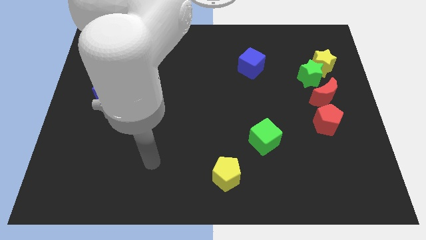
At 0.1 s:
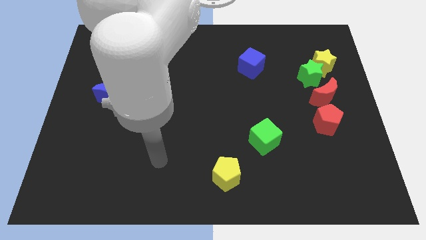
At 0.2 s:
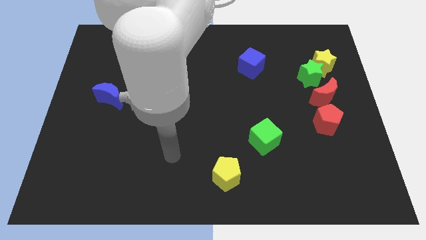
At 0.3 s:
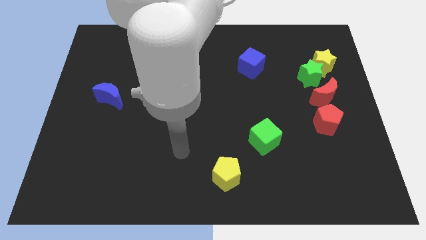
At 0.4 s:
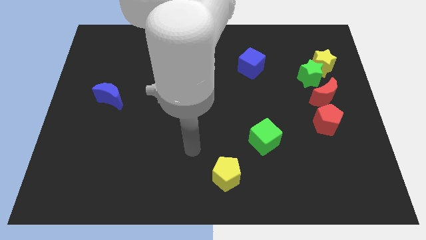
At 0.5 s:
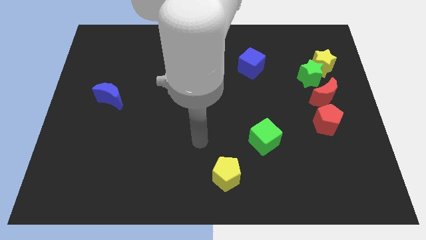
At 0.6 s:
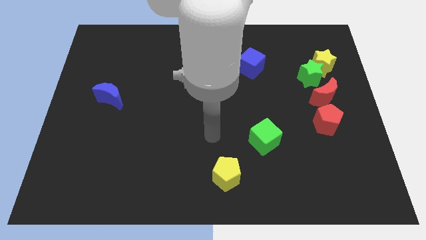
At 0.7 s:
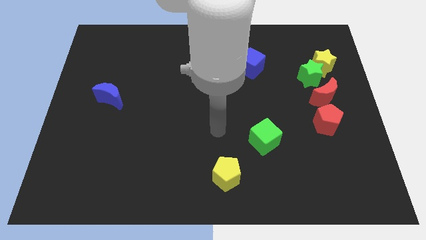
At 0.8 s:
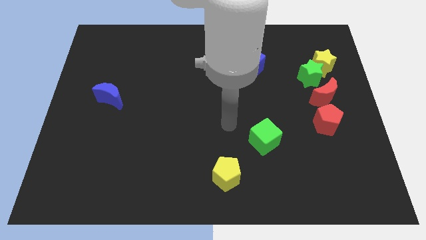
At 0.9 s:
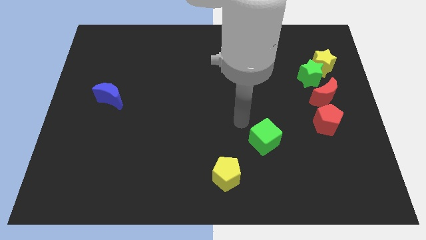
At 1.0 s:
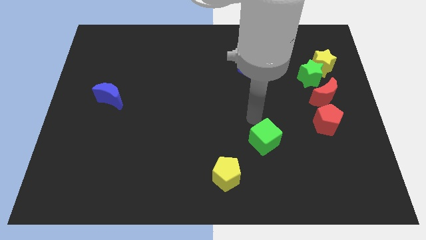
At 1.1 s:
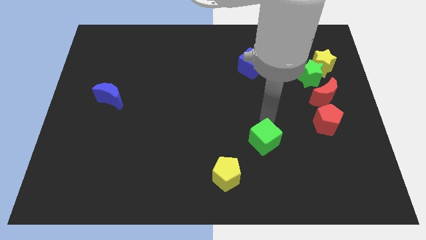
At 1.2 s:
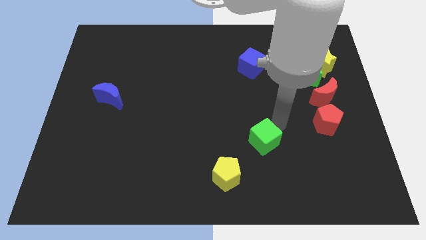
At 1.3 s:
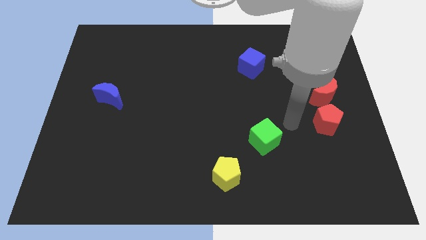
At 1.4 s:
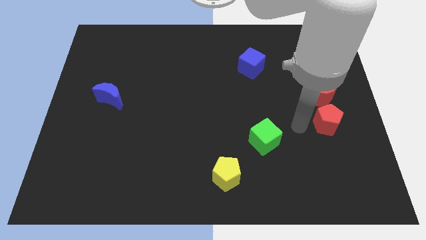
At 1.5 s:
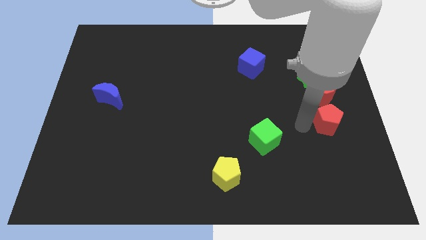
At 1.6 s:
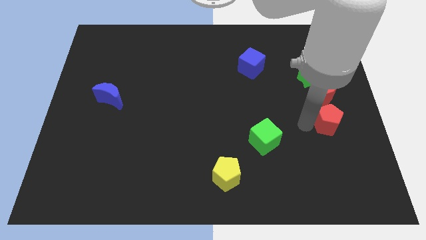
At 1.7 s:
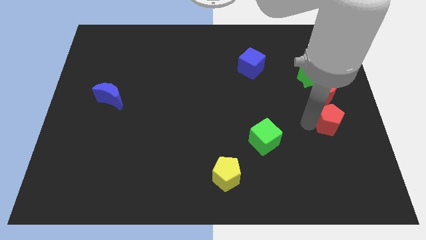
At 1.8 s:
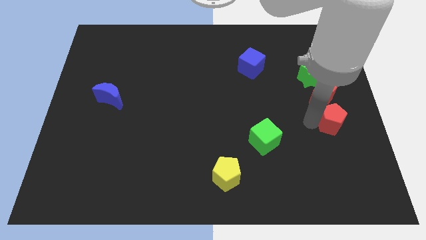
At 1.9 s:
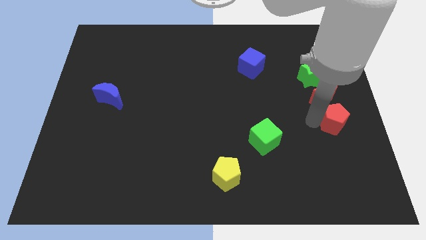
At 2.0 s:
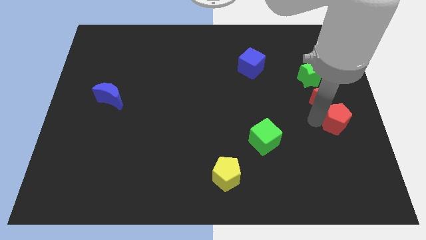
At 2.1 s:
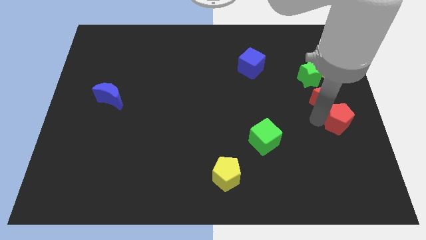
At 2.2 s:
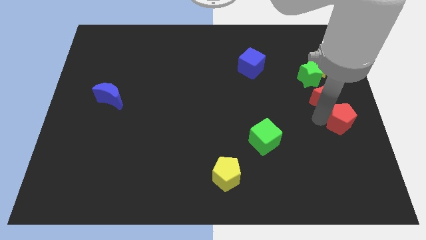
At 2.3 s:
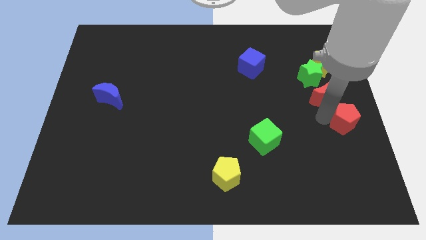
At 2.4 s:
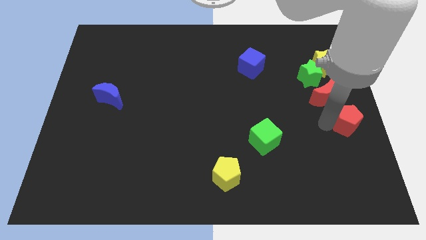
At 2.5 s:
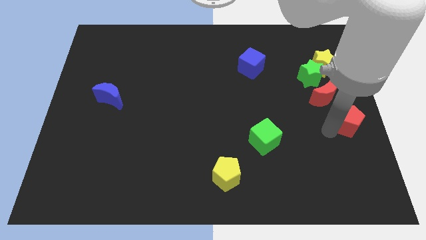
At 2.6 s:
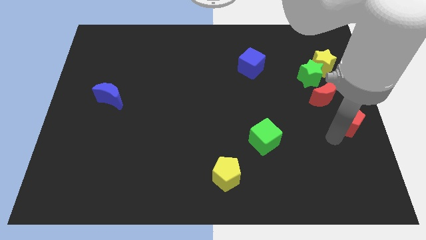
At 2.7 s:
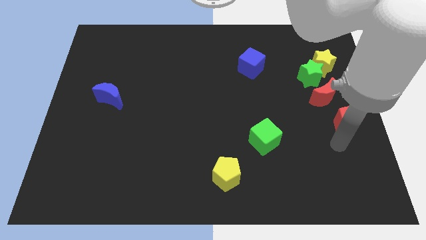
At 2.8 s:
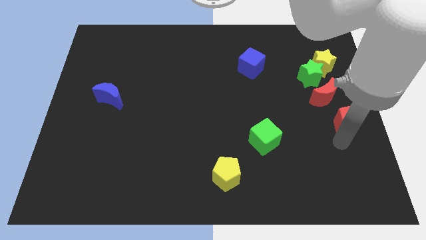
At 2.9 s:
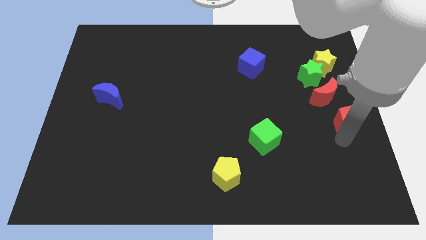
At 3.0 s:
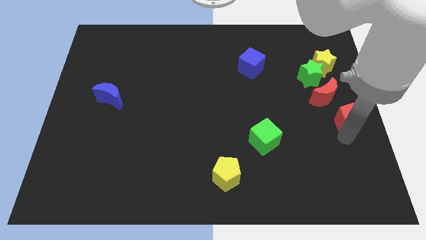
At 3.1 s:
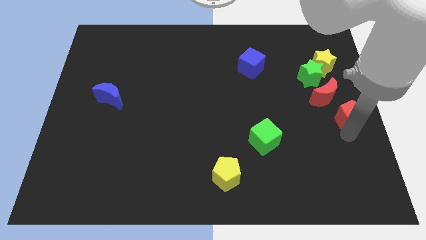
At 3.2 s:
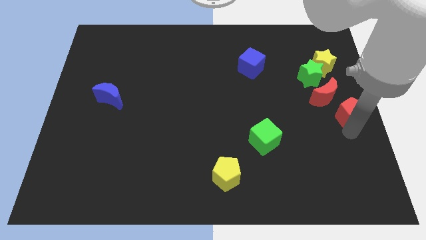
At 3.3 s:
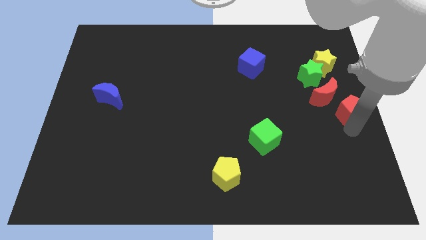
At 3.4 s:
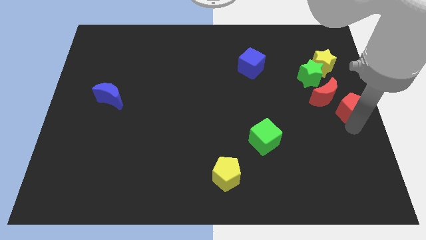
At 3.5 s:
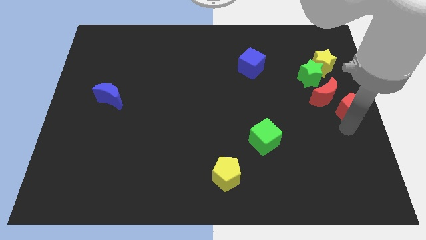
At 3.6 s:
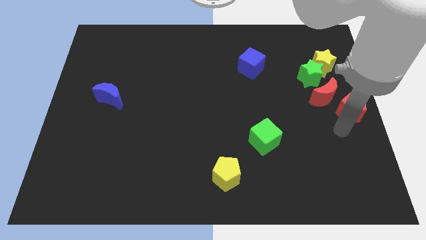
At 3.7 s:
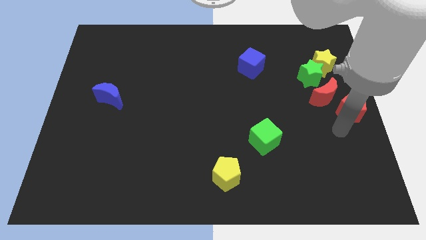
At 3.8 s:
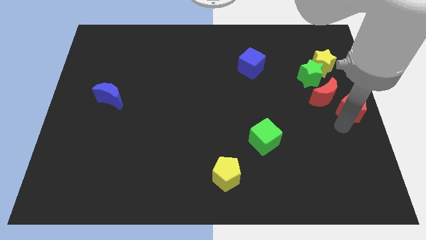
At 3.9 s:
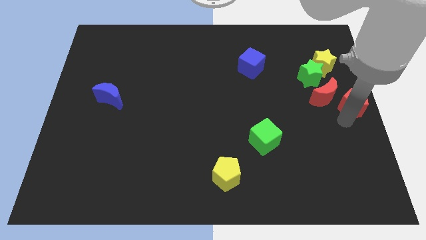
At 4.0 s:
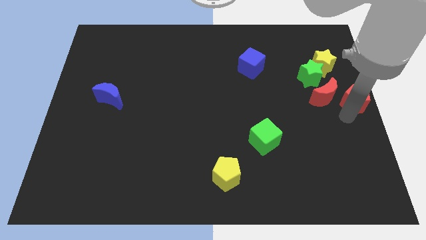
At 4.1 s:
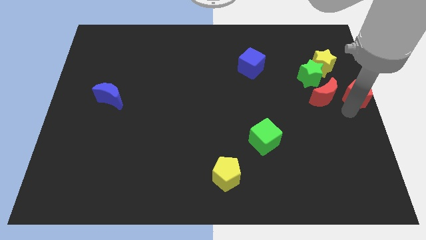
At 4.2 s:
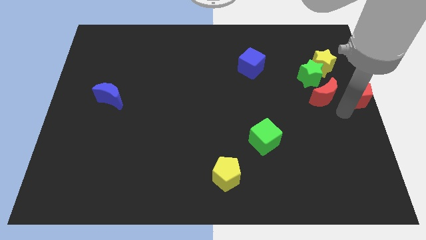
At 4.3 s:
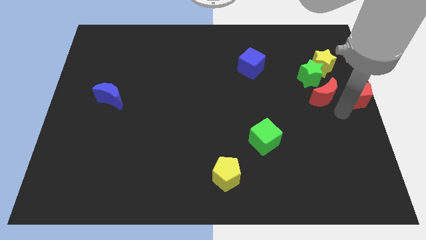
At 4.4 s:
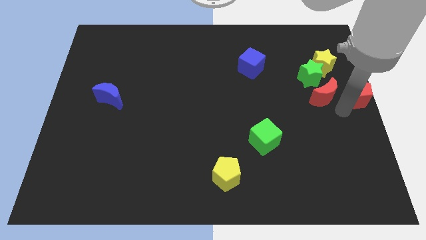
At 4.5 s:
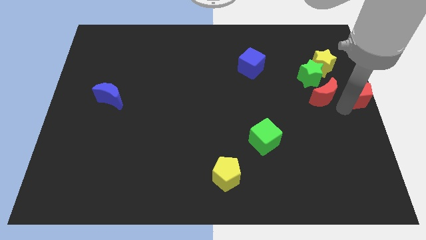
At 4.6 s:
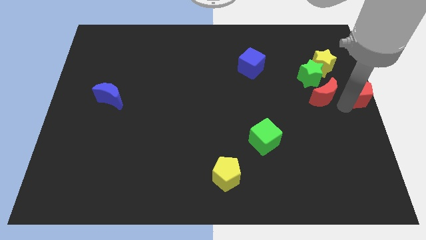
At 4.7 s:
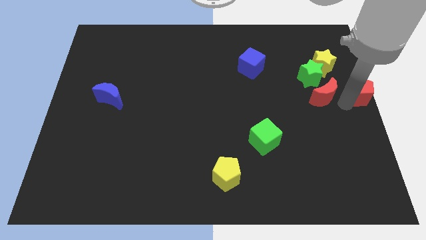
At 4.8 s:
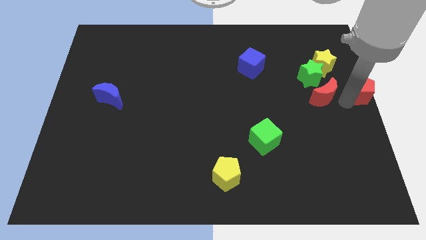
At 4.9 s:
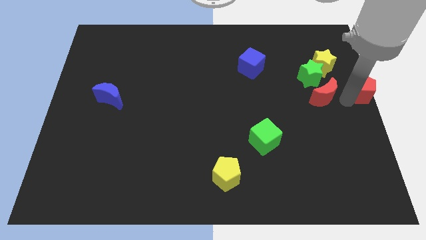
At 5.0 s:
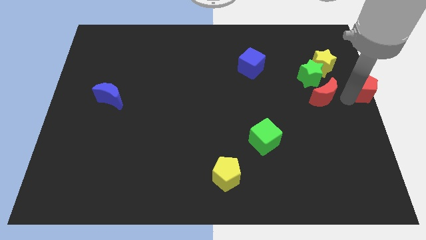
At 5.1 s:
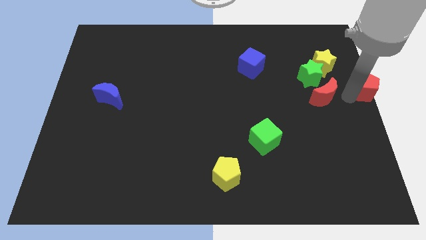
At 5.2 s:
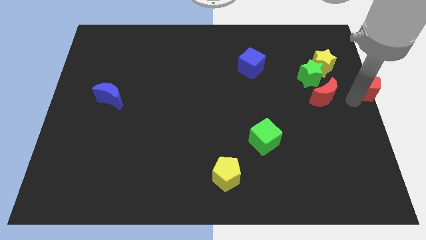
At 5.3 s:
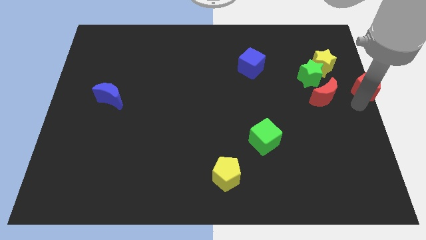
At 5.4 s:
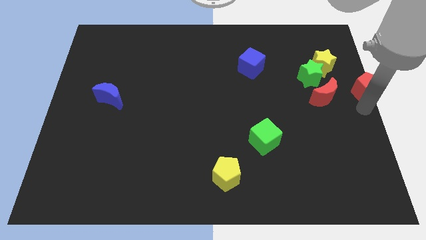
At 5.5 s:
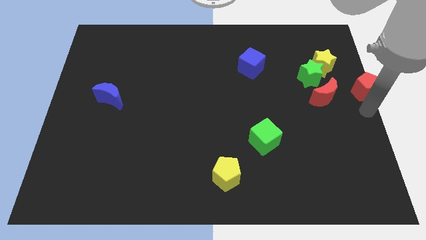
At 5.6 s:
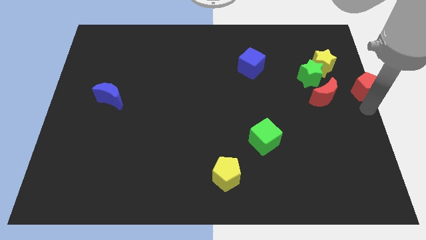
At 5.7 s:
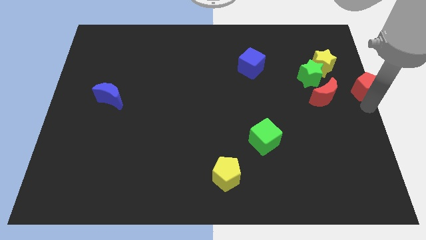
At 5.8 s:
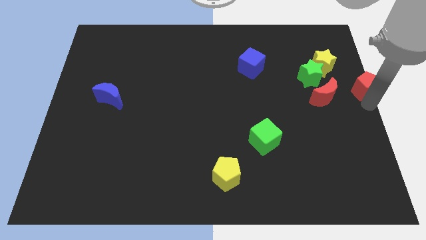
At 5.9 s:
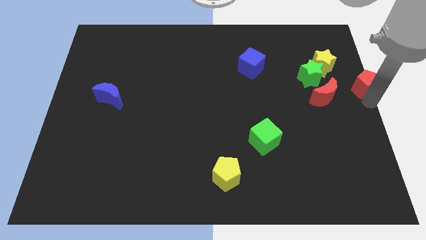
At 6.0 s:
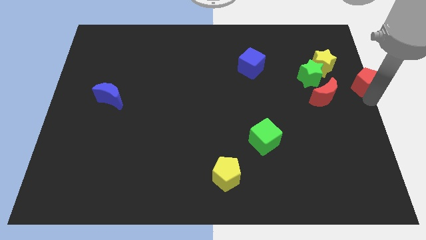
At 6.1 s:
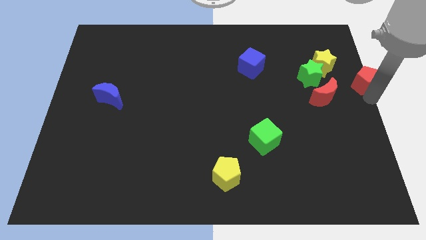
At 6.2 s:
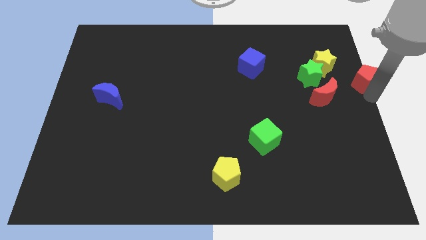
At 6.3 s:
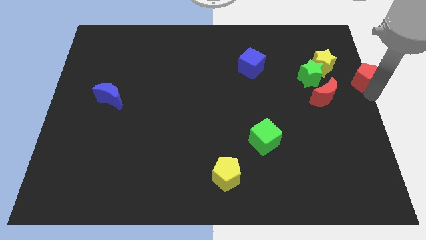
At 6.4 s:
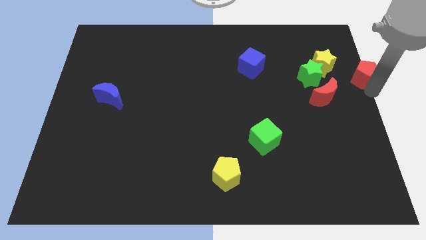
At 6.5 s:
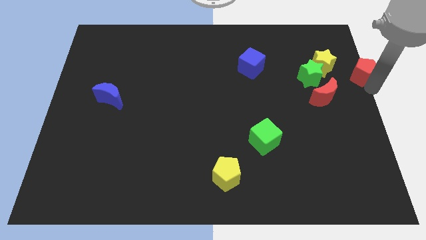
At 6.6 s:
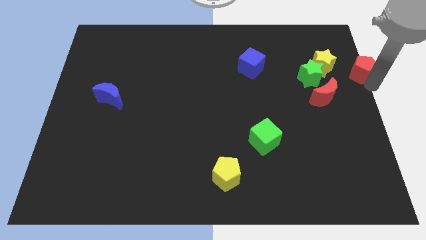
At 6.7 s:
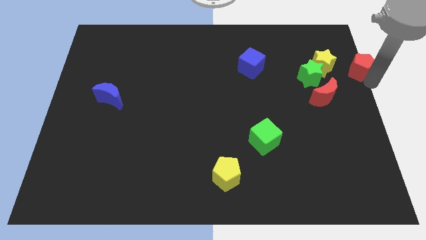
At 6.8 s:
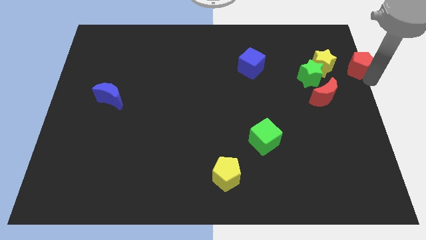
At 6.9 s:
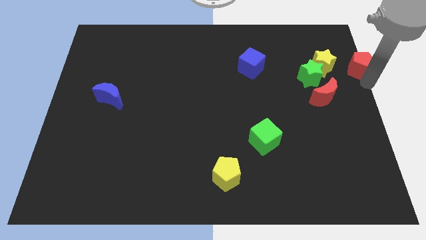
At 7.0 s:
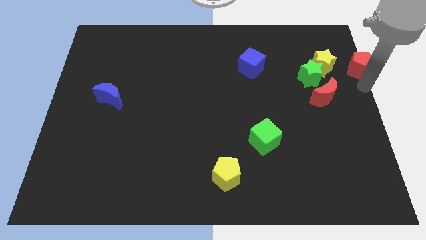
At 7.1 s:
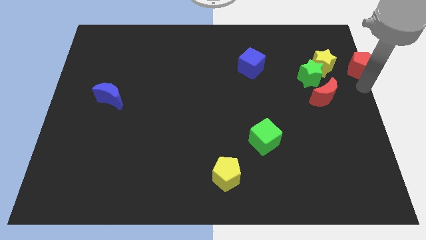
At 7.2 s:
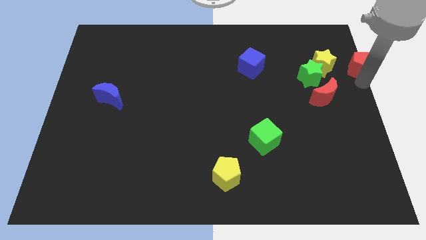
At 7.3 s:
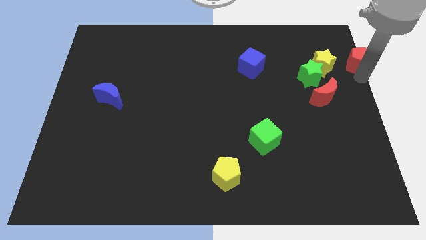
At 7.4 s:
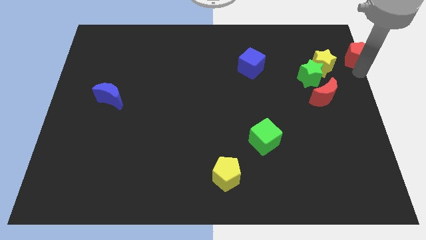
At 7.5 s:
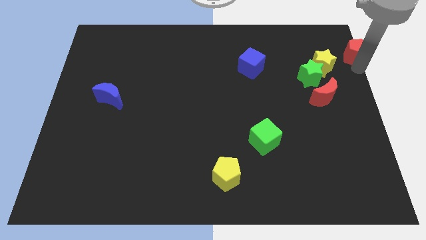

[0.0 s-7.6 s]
push the red pentagon to the upper right corner
